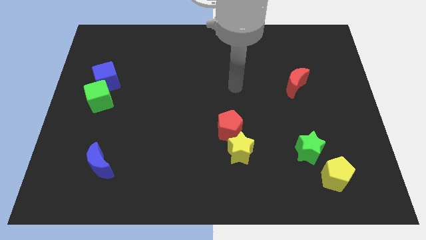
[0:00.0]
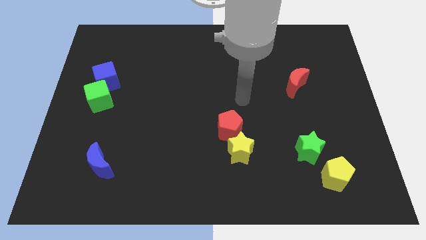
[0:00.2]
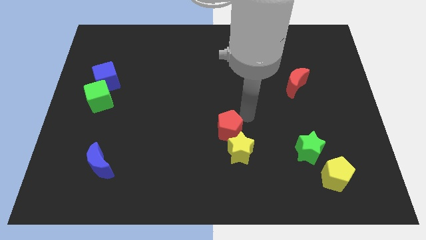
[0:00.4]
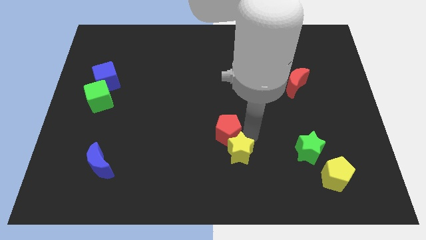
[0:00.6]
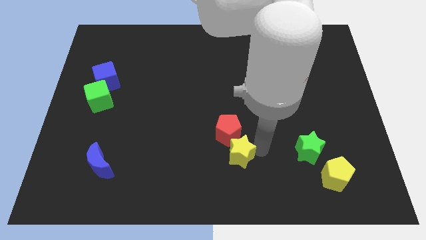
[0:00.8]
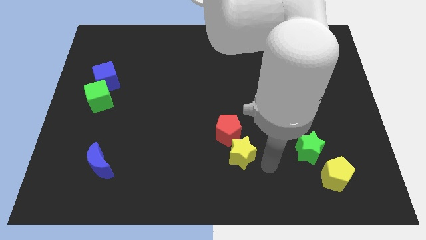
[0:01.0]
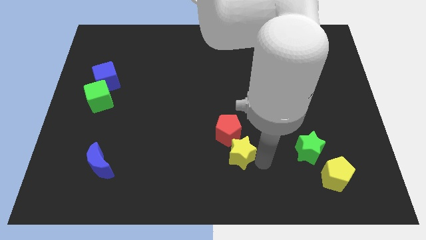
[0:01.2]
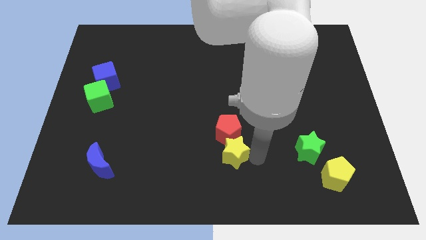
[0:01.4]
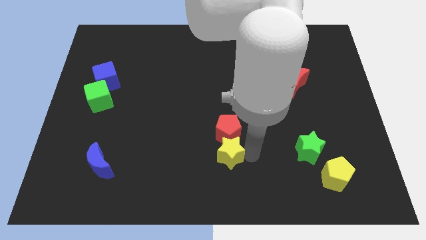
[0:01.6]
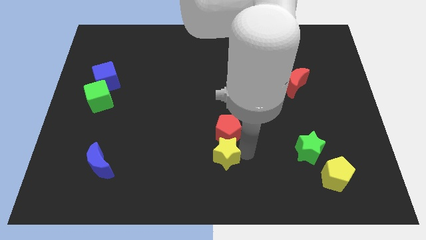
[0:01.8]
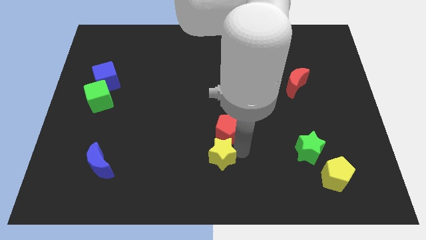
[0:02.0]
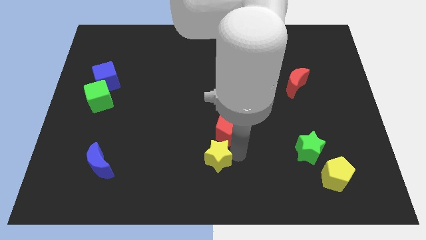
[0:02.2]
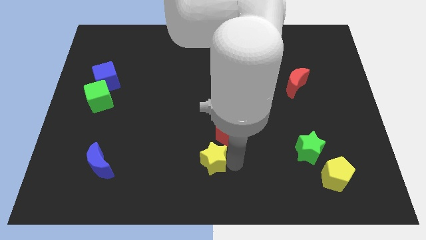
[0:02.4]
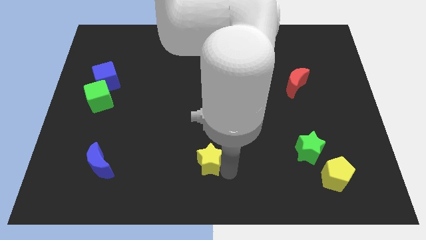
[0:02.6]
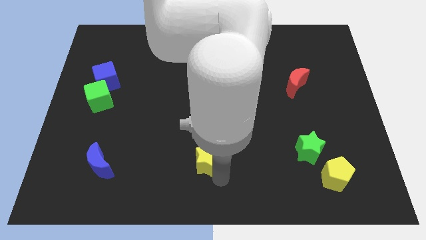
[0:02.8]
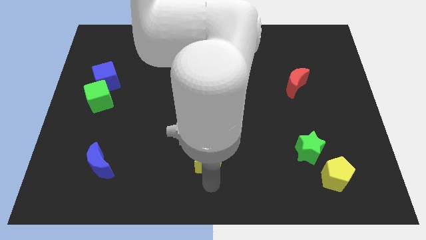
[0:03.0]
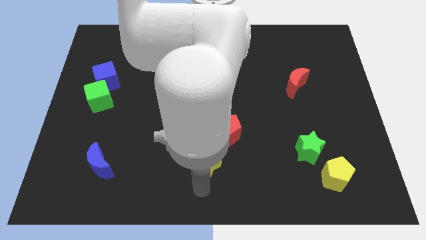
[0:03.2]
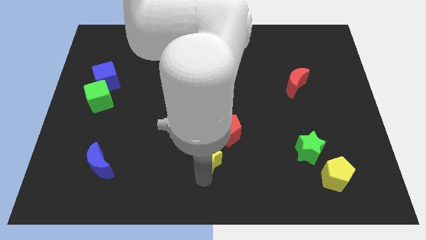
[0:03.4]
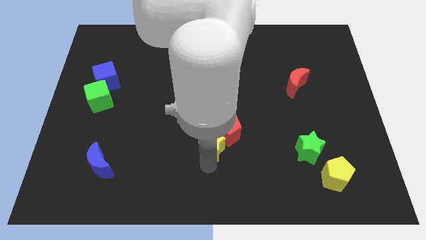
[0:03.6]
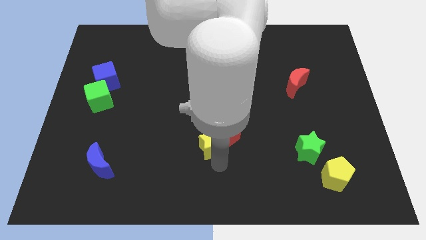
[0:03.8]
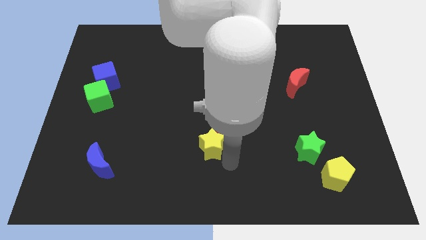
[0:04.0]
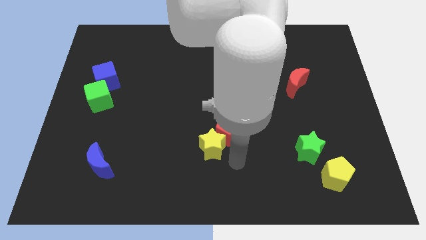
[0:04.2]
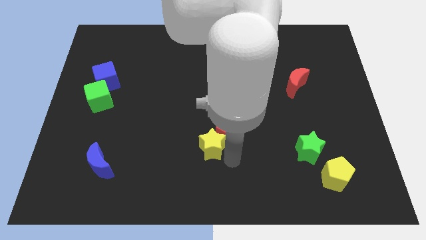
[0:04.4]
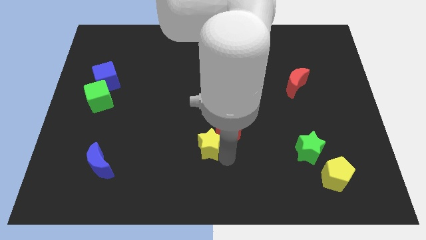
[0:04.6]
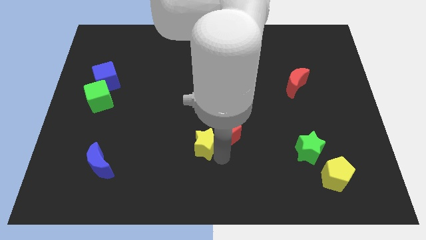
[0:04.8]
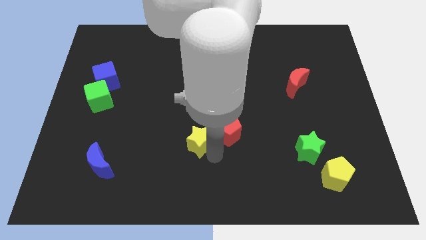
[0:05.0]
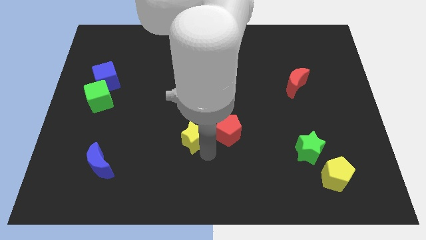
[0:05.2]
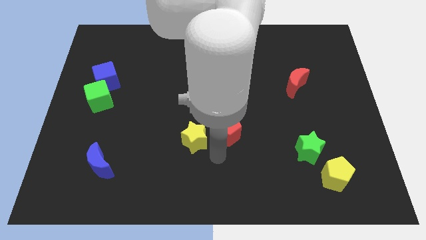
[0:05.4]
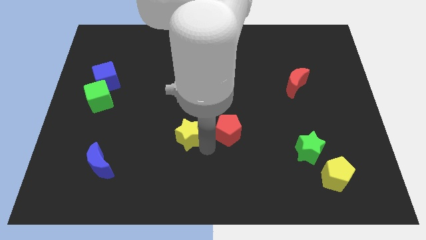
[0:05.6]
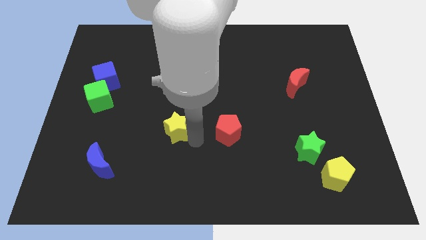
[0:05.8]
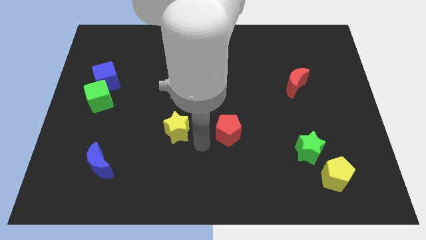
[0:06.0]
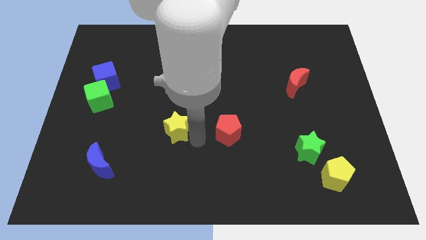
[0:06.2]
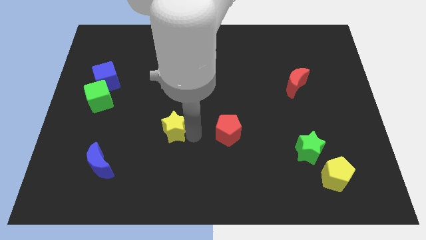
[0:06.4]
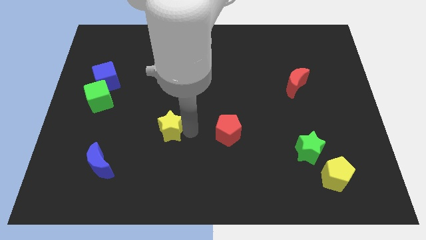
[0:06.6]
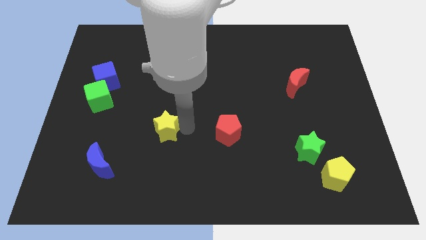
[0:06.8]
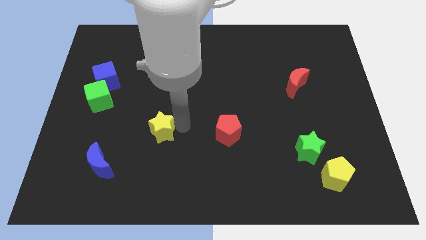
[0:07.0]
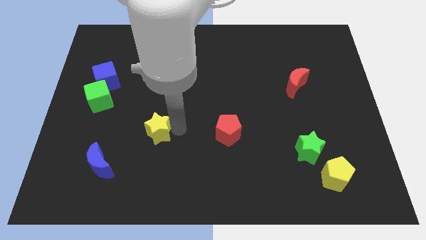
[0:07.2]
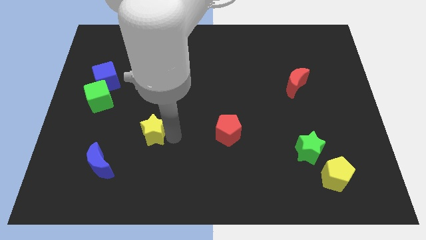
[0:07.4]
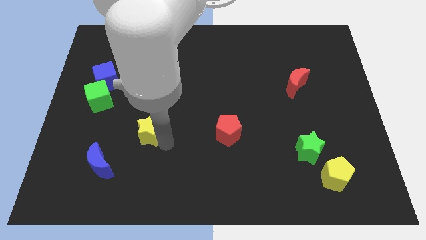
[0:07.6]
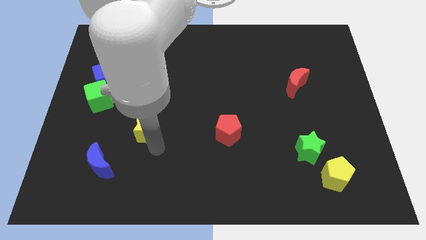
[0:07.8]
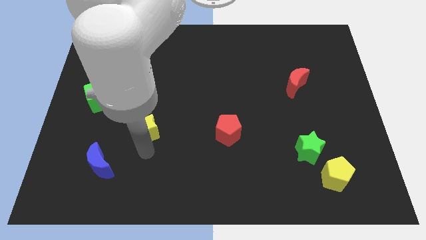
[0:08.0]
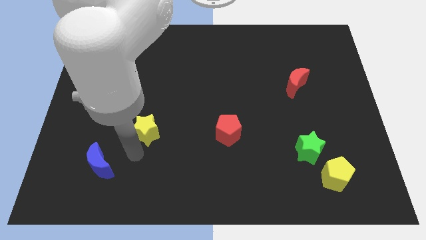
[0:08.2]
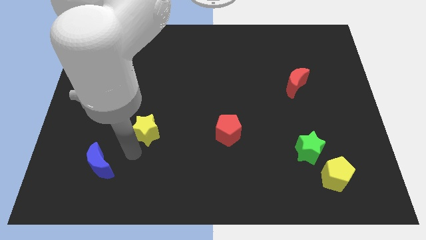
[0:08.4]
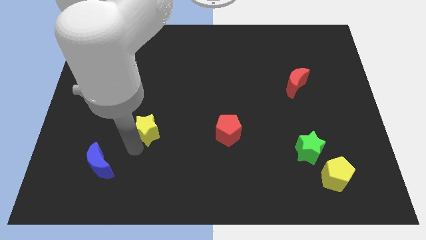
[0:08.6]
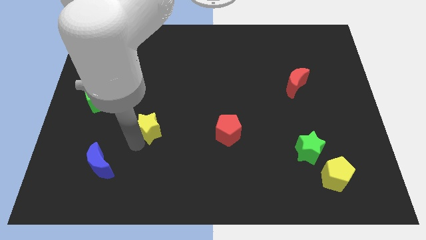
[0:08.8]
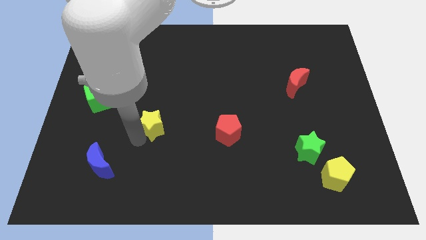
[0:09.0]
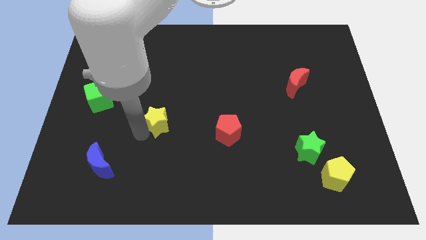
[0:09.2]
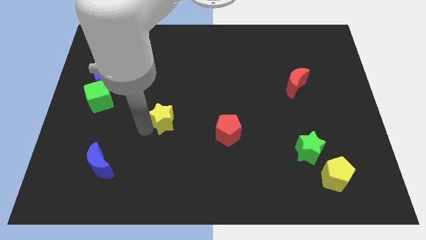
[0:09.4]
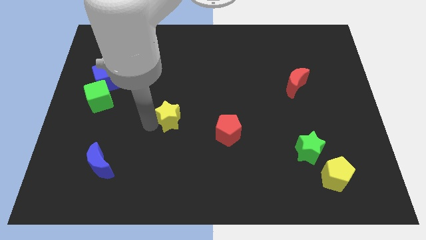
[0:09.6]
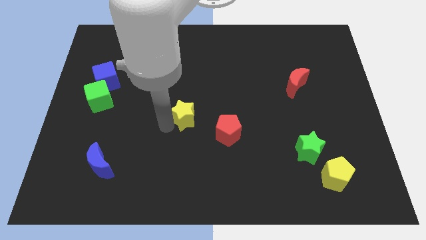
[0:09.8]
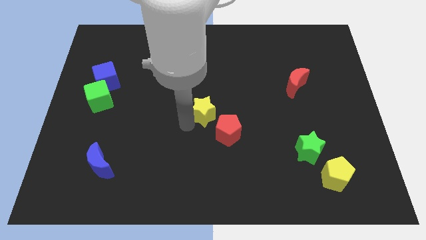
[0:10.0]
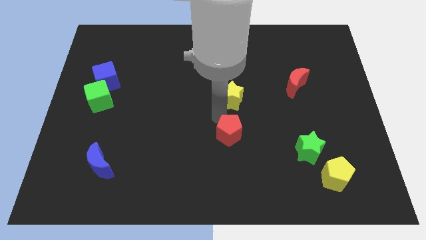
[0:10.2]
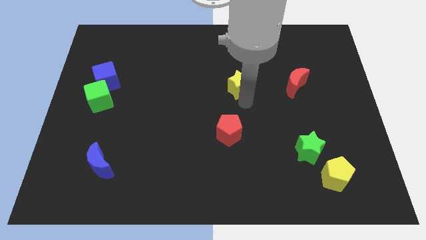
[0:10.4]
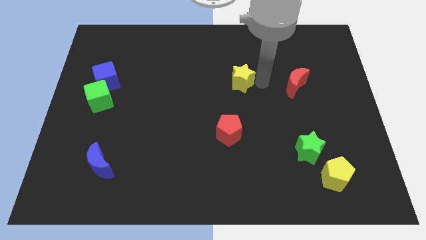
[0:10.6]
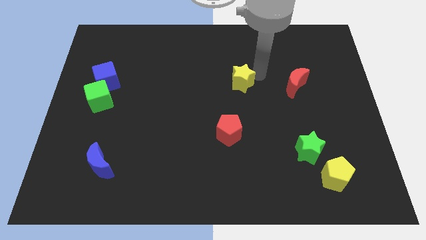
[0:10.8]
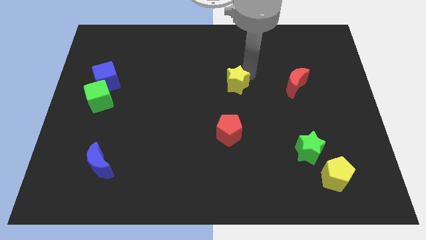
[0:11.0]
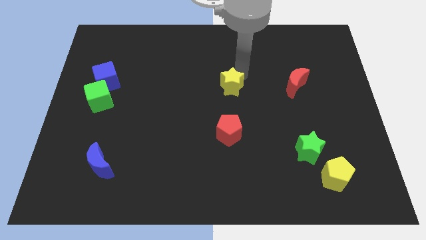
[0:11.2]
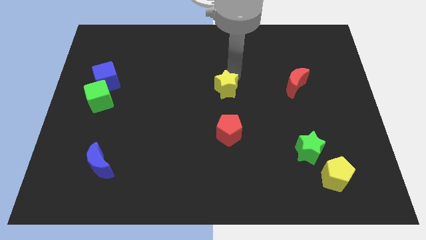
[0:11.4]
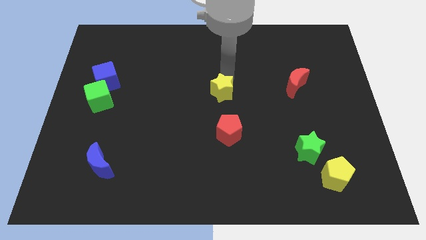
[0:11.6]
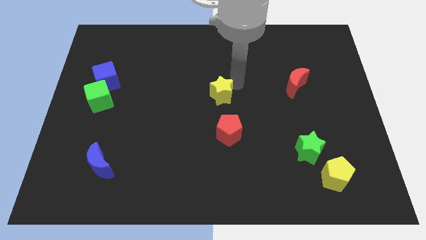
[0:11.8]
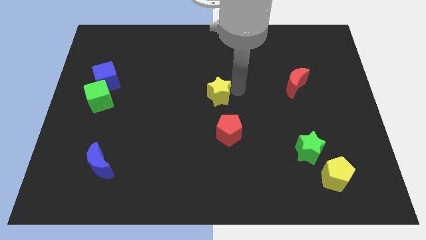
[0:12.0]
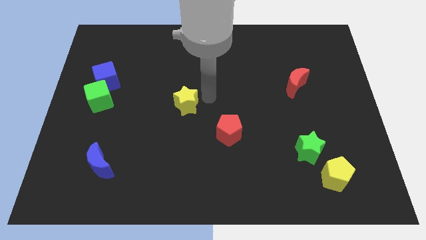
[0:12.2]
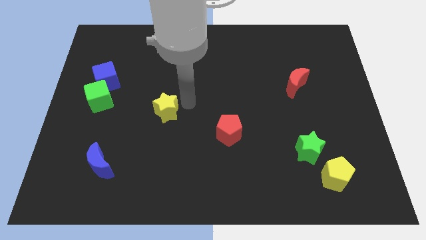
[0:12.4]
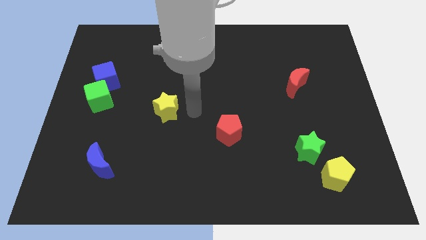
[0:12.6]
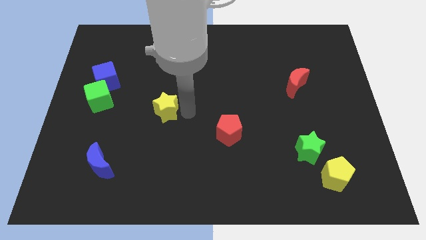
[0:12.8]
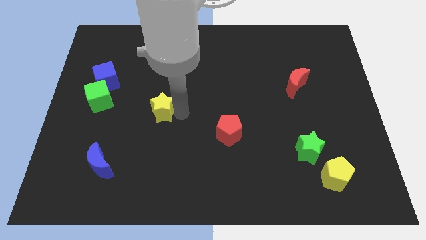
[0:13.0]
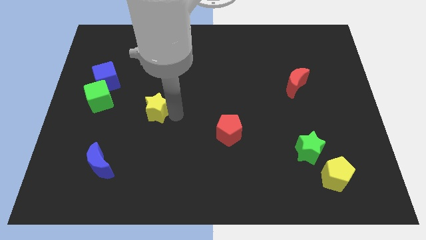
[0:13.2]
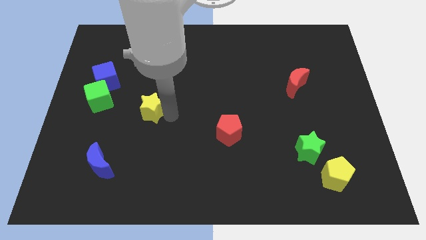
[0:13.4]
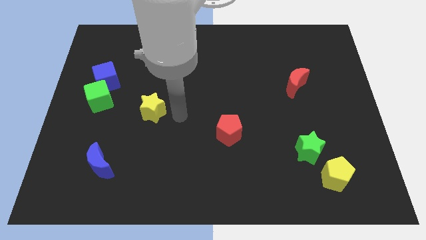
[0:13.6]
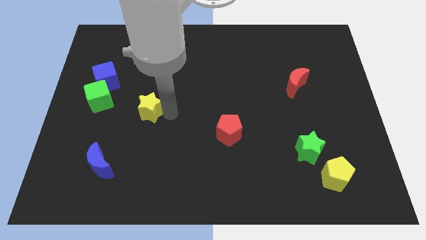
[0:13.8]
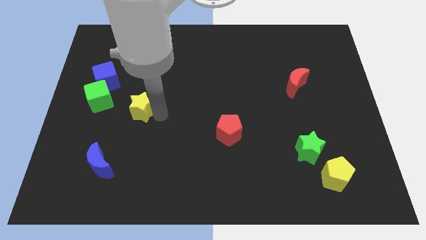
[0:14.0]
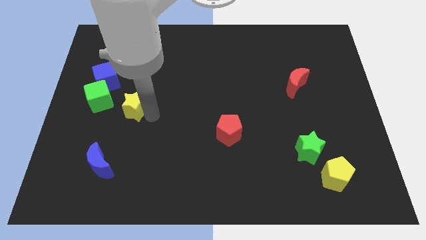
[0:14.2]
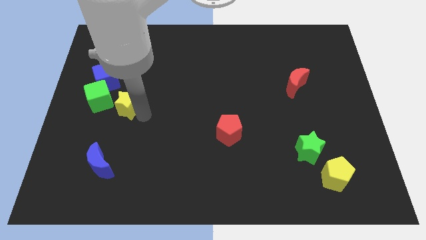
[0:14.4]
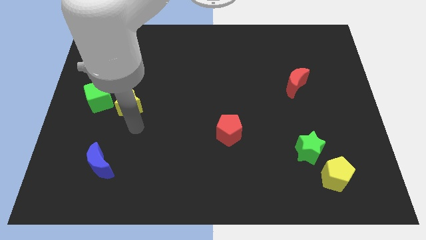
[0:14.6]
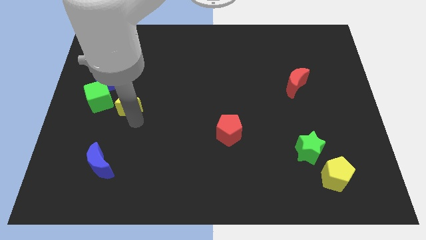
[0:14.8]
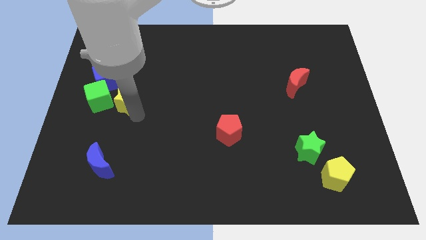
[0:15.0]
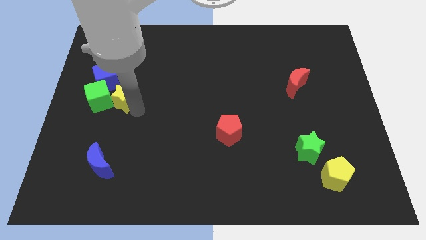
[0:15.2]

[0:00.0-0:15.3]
push the yellow star to the top right side of the green cube
